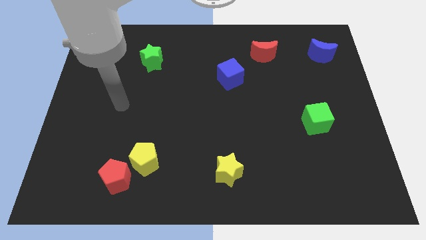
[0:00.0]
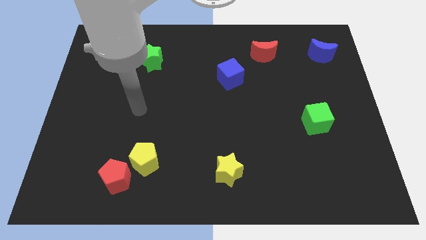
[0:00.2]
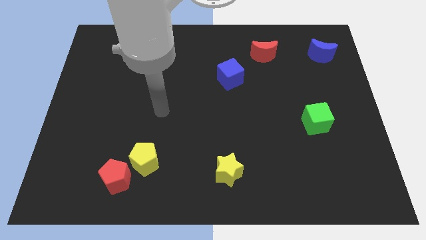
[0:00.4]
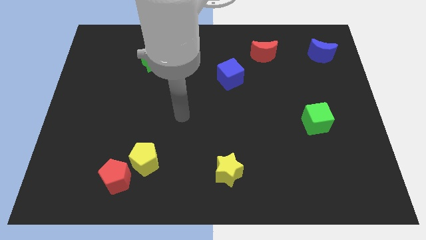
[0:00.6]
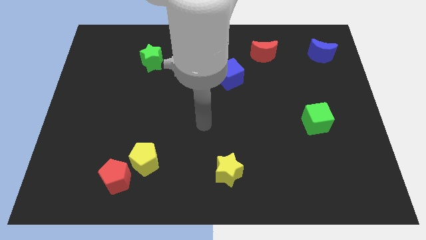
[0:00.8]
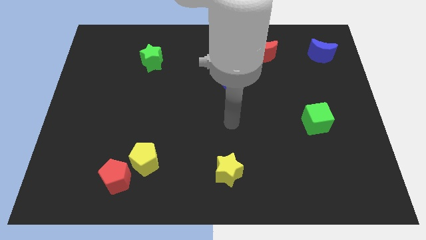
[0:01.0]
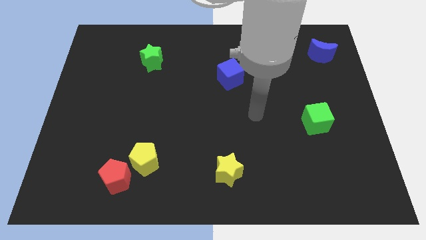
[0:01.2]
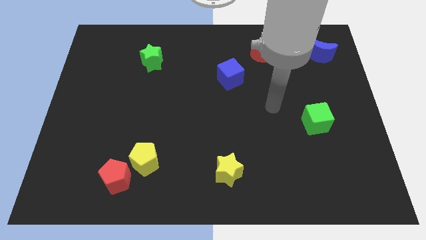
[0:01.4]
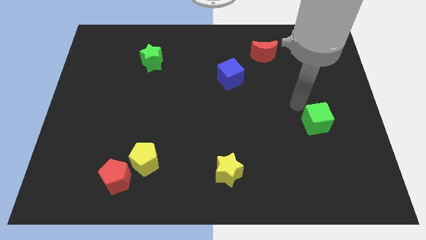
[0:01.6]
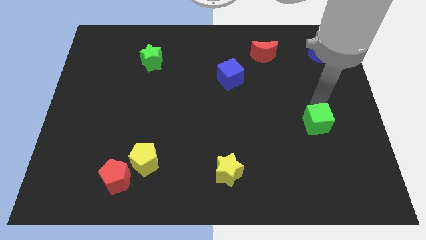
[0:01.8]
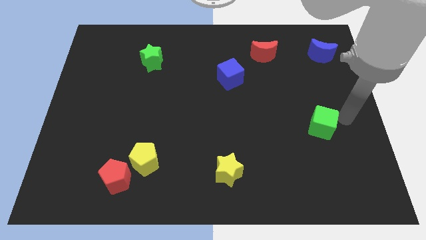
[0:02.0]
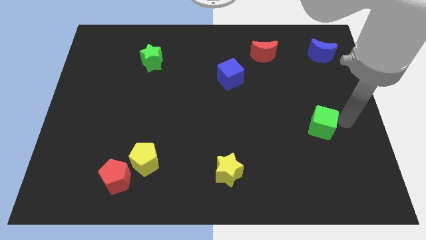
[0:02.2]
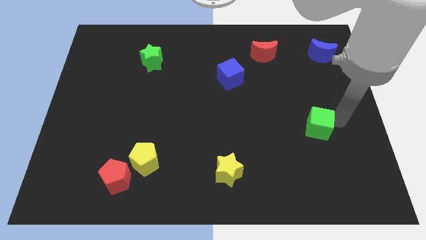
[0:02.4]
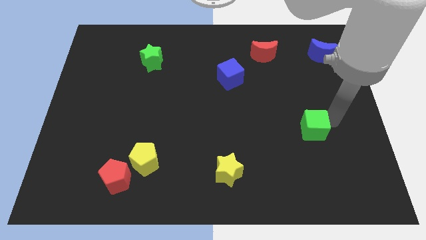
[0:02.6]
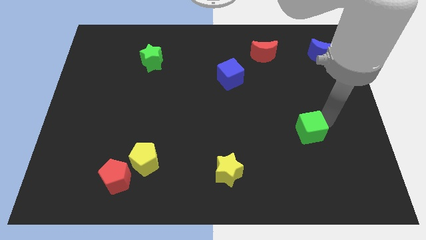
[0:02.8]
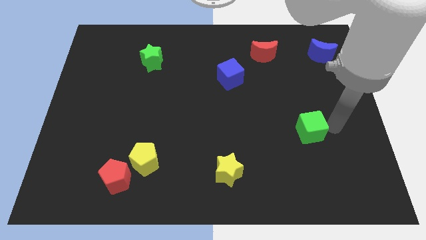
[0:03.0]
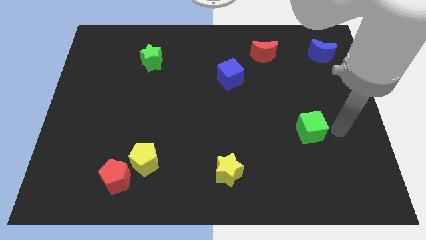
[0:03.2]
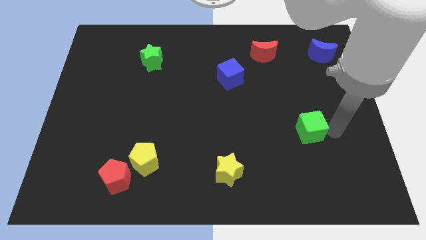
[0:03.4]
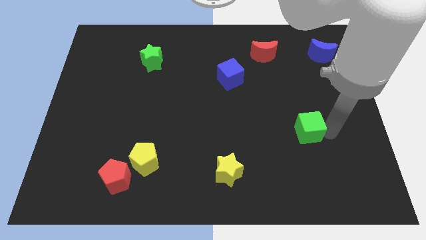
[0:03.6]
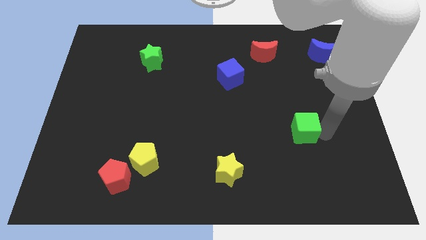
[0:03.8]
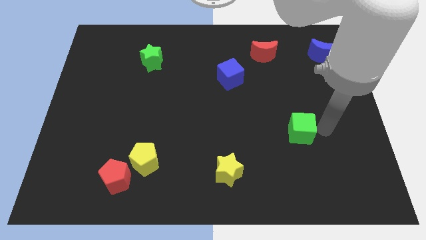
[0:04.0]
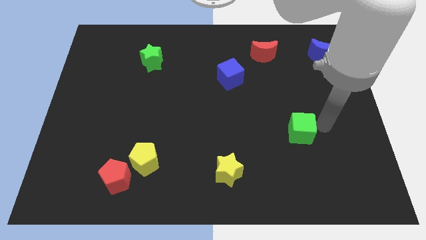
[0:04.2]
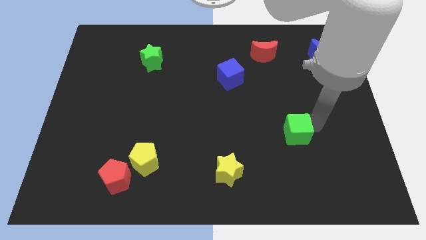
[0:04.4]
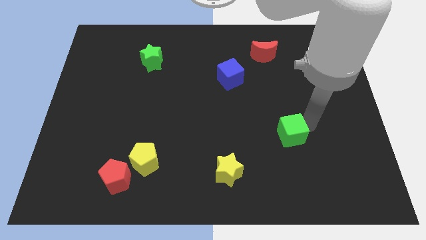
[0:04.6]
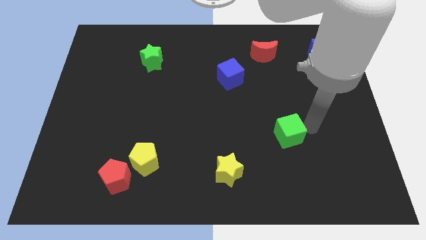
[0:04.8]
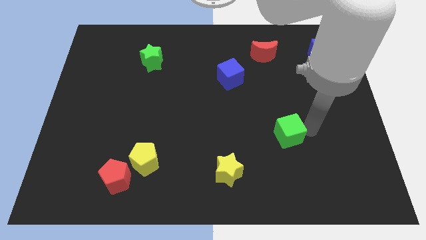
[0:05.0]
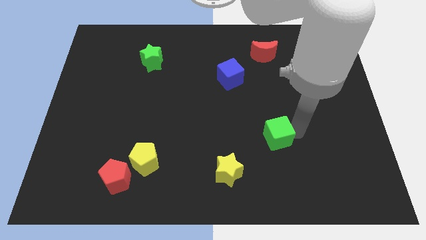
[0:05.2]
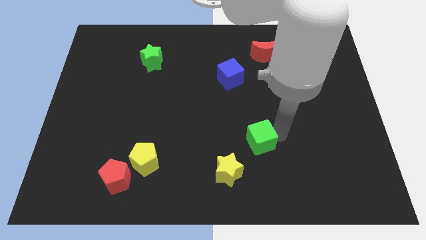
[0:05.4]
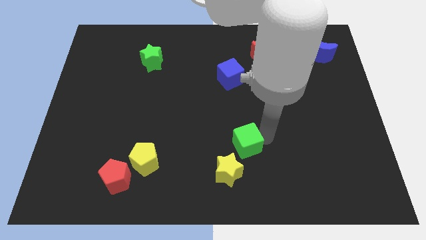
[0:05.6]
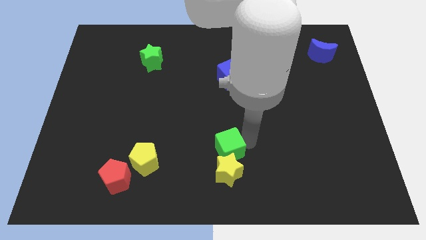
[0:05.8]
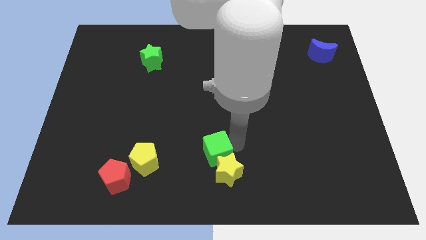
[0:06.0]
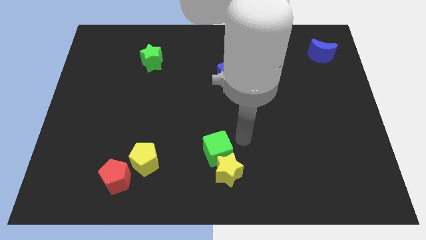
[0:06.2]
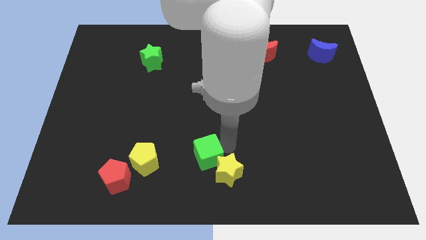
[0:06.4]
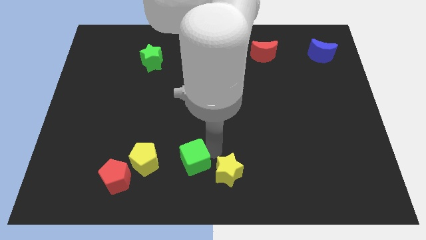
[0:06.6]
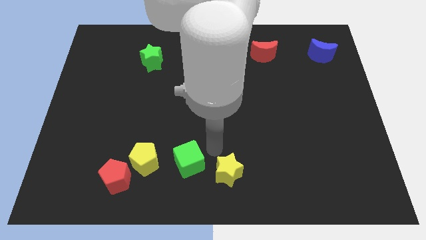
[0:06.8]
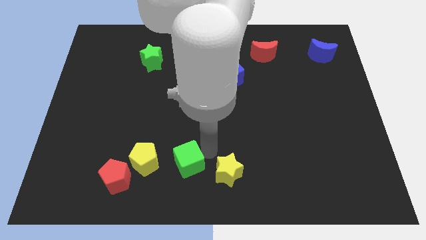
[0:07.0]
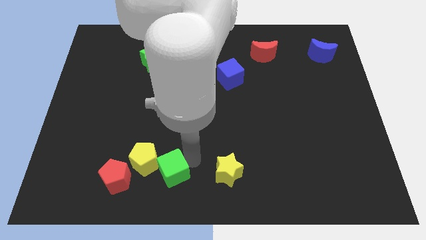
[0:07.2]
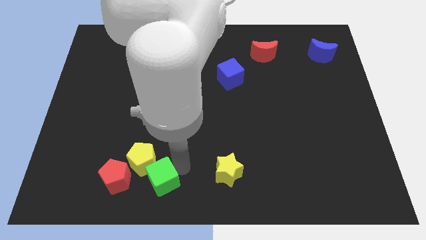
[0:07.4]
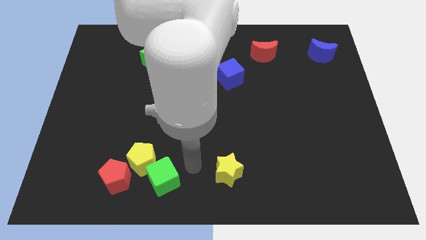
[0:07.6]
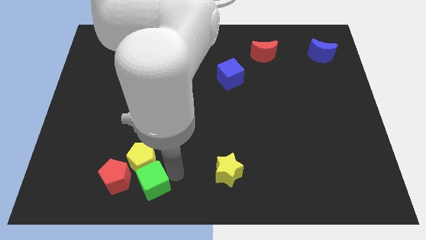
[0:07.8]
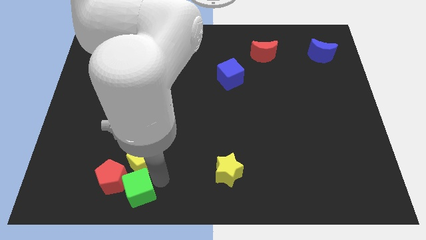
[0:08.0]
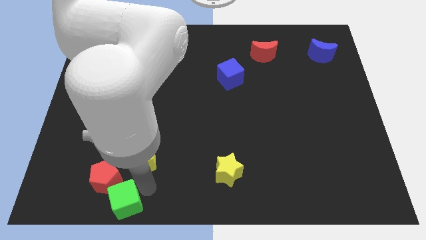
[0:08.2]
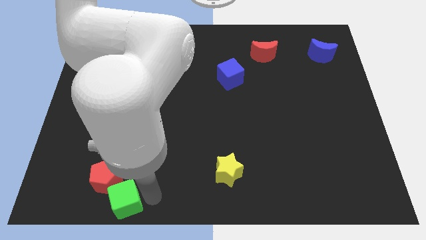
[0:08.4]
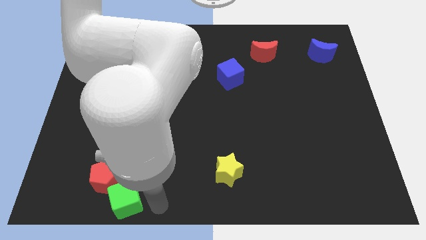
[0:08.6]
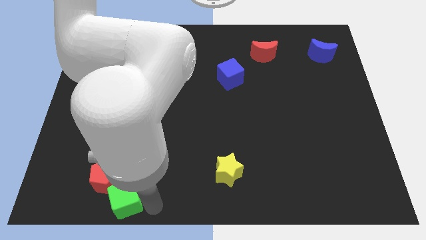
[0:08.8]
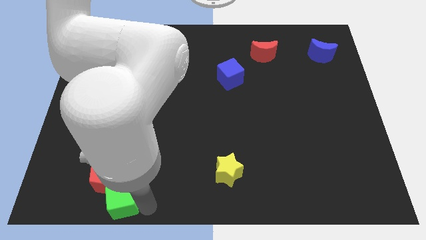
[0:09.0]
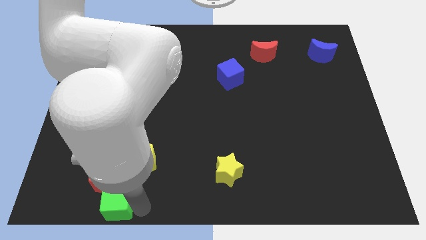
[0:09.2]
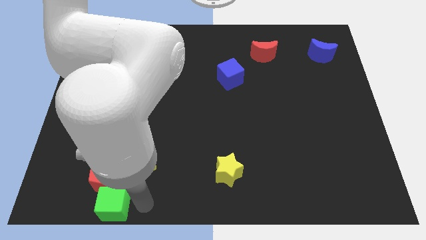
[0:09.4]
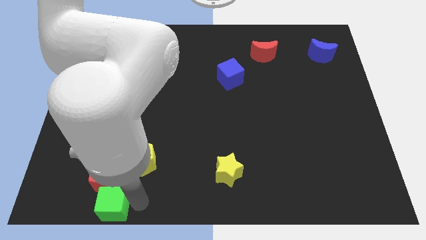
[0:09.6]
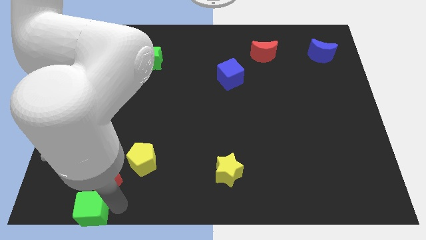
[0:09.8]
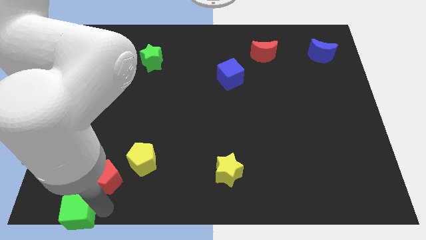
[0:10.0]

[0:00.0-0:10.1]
move the green cube to the lower left corner

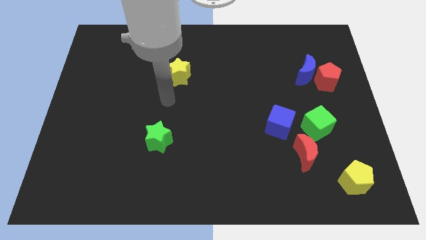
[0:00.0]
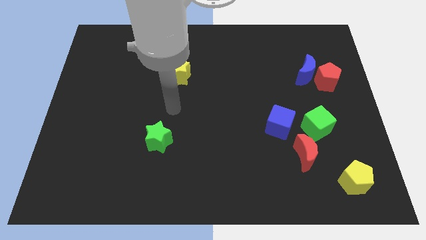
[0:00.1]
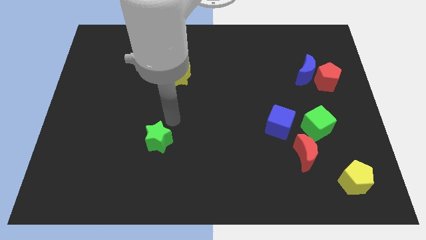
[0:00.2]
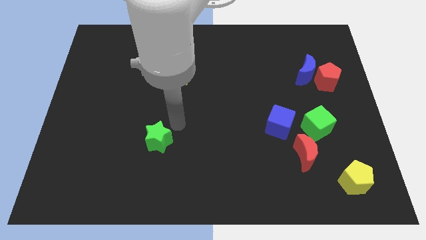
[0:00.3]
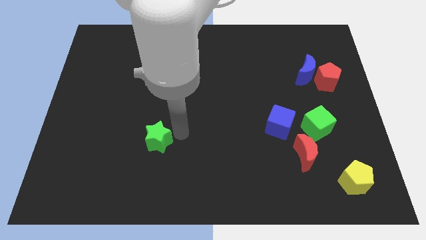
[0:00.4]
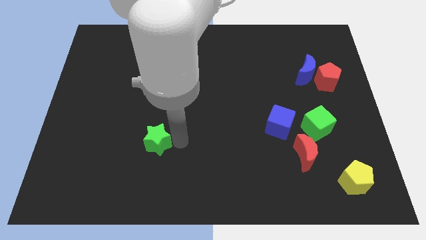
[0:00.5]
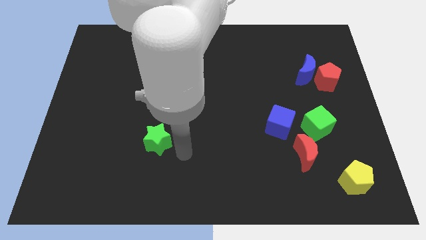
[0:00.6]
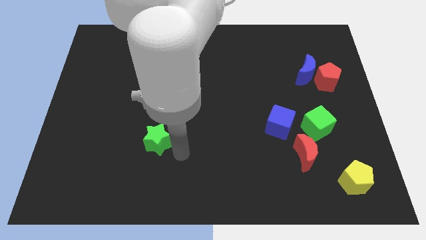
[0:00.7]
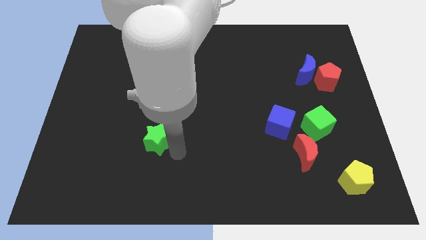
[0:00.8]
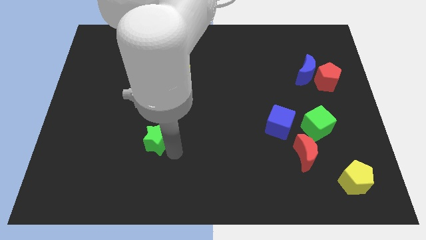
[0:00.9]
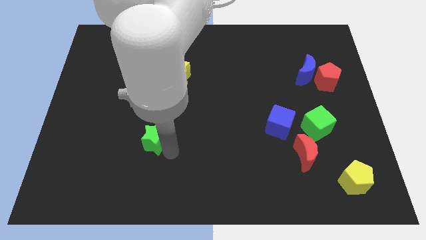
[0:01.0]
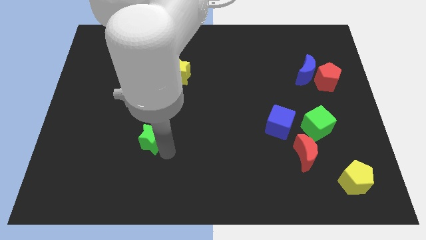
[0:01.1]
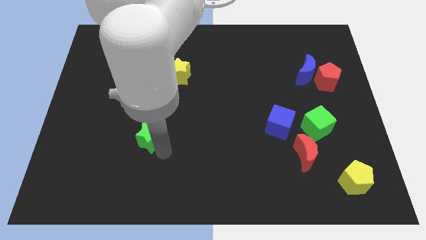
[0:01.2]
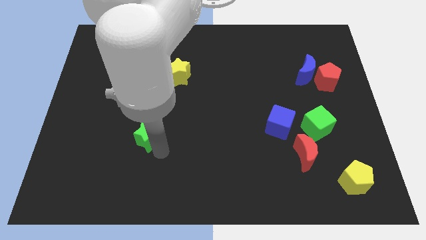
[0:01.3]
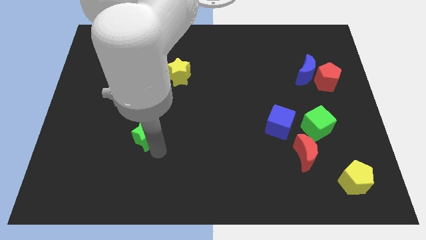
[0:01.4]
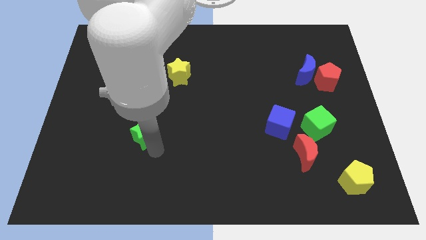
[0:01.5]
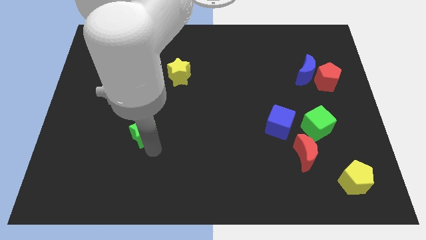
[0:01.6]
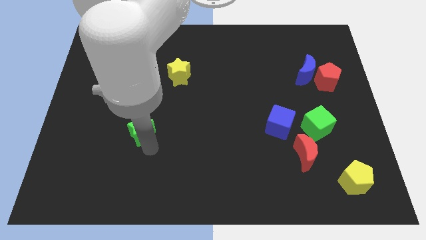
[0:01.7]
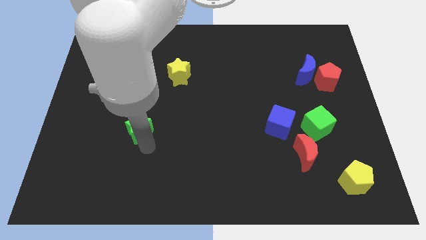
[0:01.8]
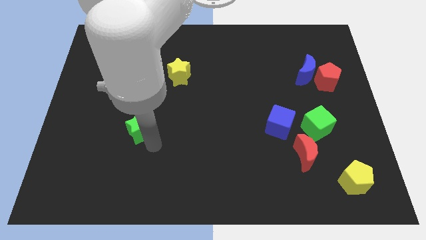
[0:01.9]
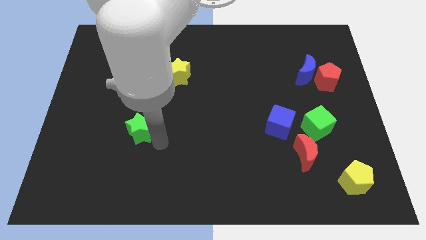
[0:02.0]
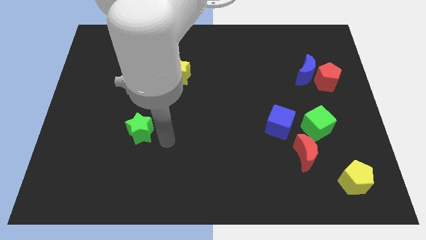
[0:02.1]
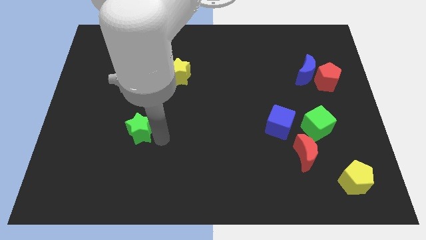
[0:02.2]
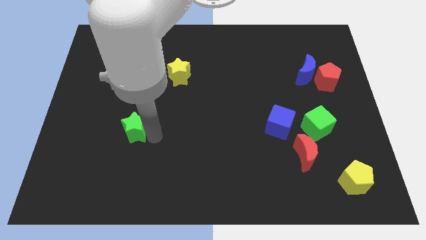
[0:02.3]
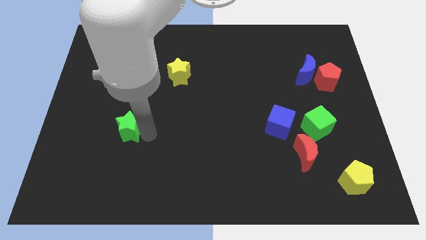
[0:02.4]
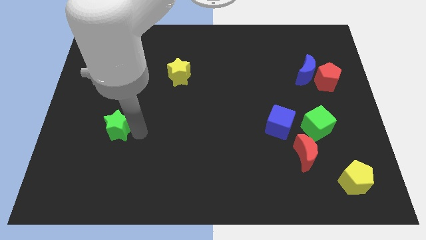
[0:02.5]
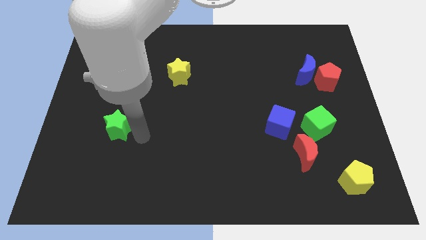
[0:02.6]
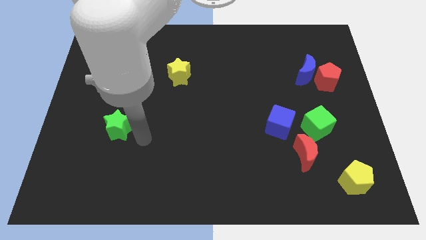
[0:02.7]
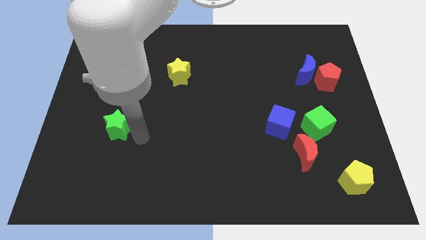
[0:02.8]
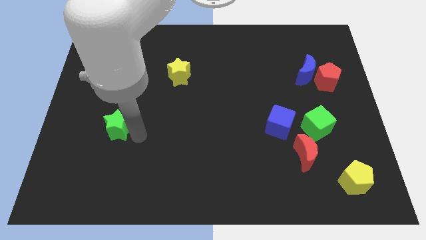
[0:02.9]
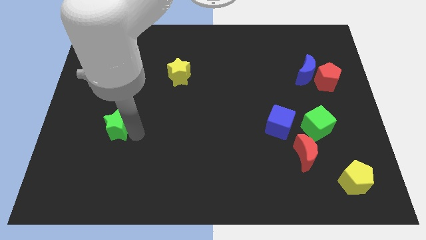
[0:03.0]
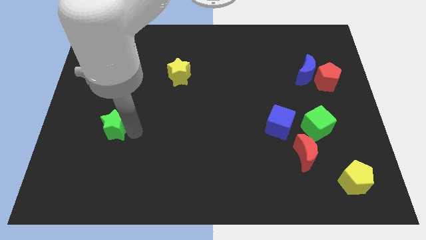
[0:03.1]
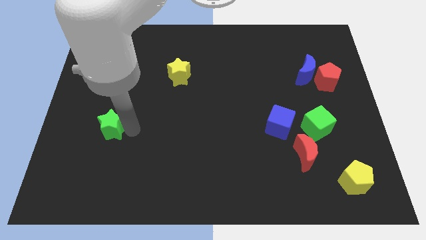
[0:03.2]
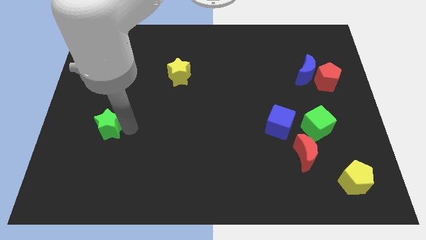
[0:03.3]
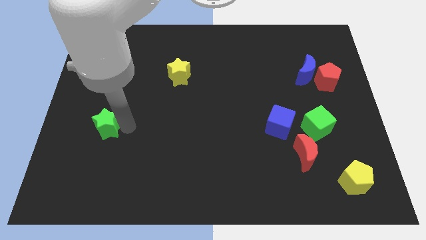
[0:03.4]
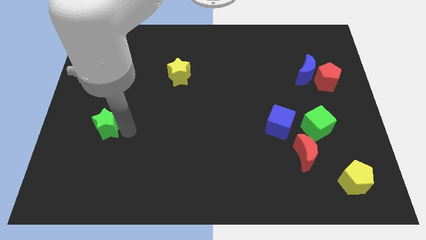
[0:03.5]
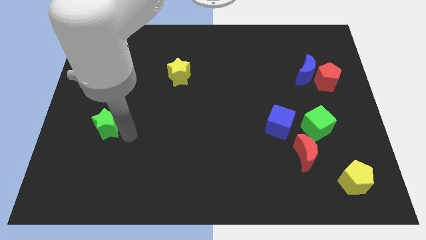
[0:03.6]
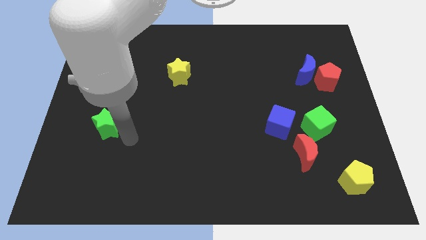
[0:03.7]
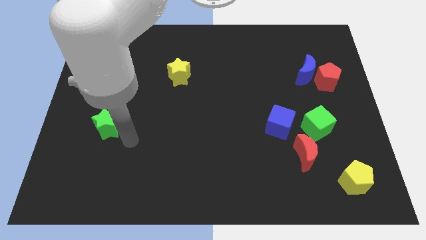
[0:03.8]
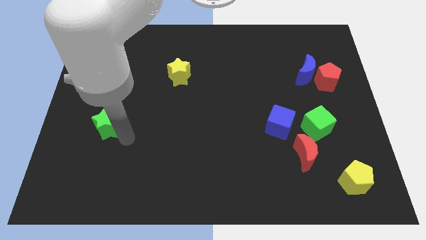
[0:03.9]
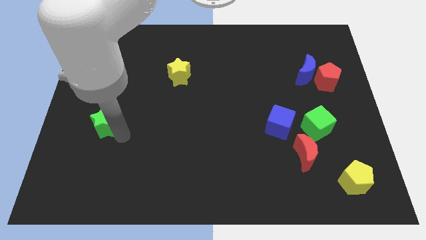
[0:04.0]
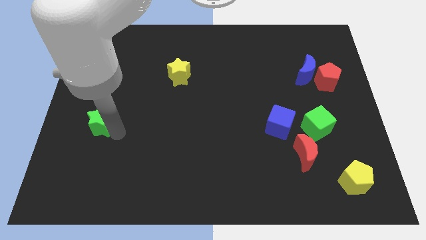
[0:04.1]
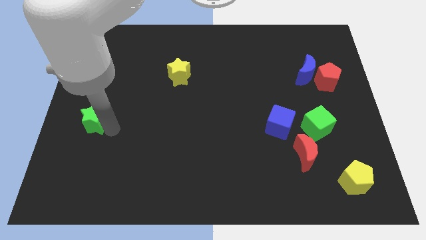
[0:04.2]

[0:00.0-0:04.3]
push the green star to the center left
